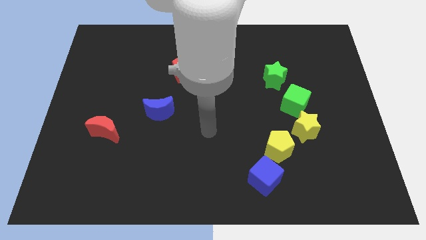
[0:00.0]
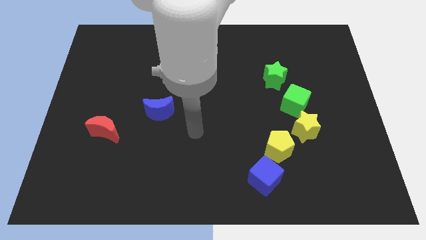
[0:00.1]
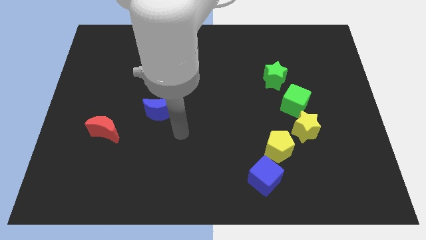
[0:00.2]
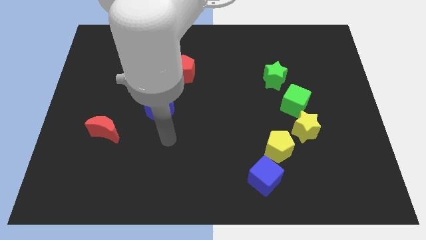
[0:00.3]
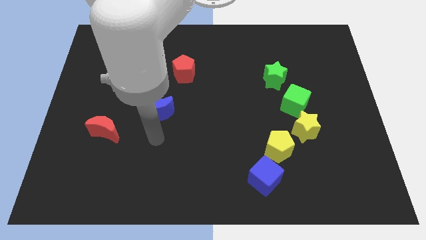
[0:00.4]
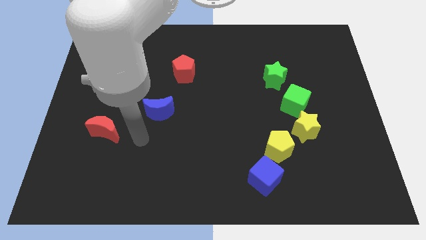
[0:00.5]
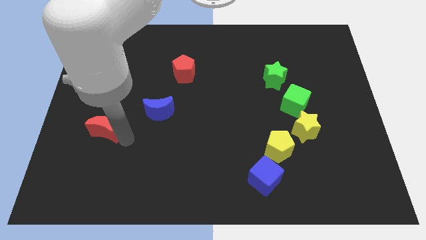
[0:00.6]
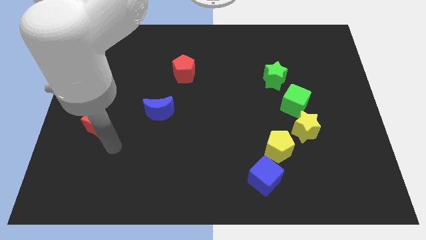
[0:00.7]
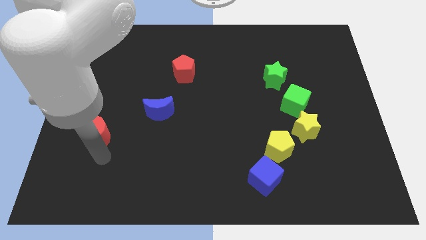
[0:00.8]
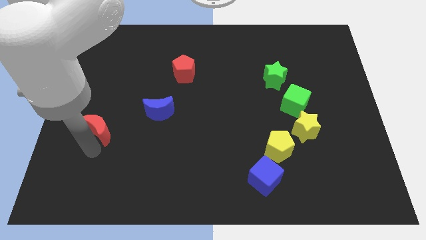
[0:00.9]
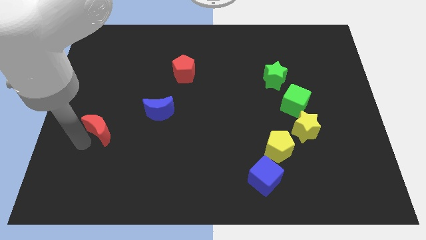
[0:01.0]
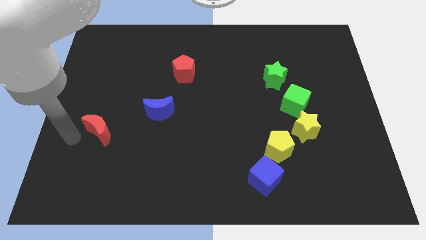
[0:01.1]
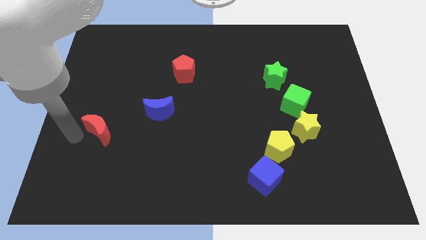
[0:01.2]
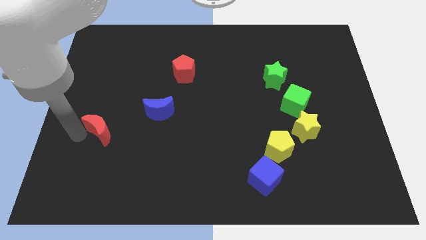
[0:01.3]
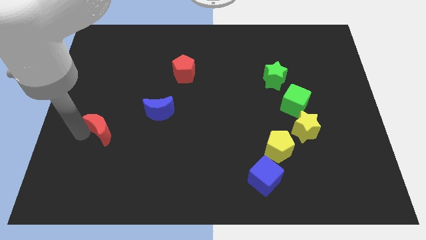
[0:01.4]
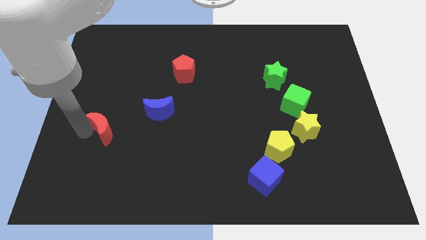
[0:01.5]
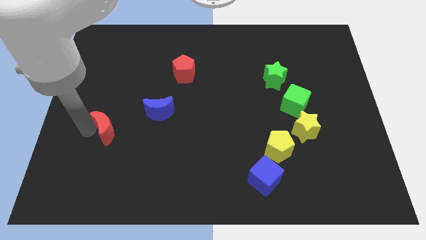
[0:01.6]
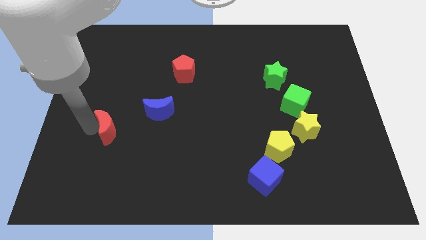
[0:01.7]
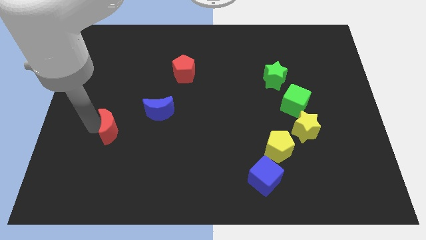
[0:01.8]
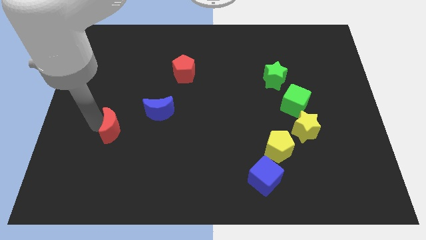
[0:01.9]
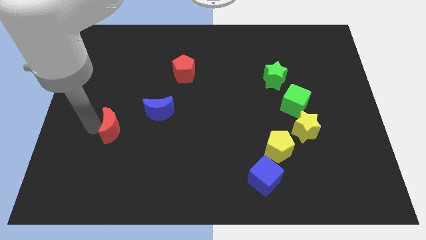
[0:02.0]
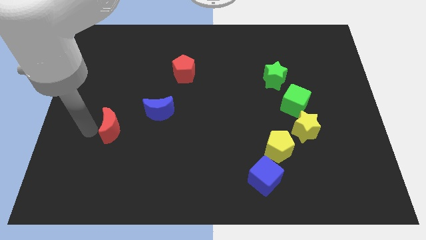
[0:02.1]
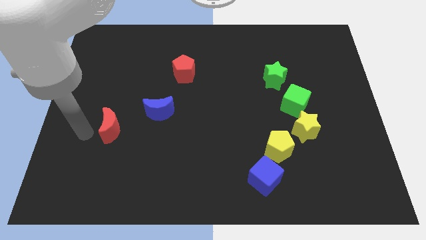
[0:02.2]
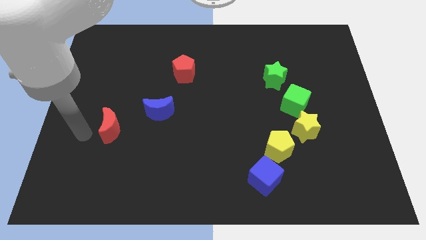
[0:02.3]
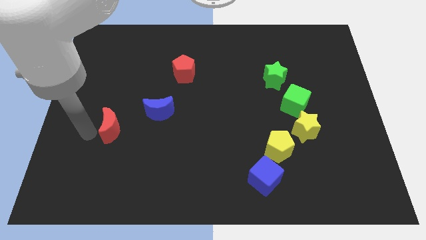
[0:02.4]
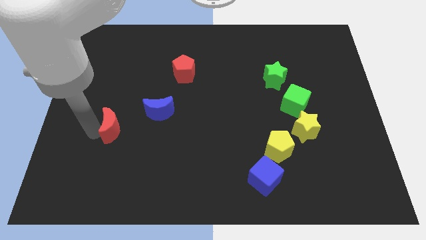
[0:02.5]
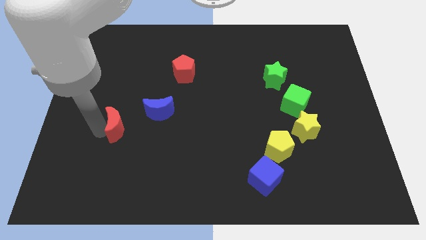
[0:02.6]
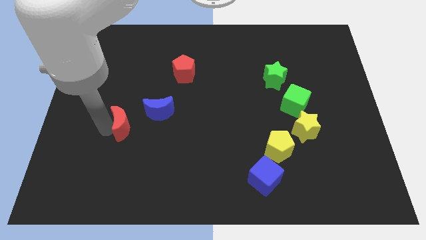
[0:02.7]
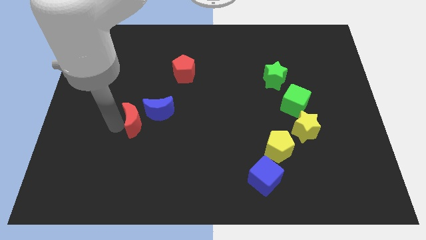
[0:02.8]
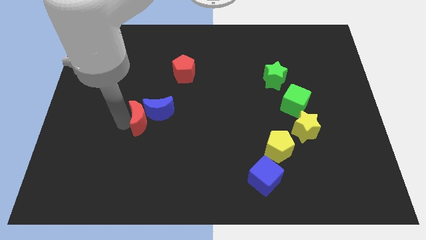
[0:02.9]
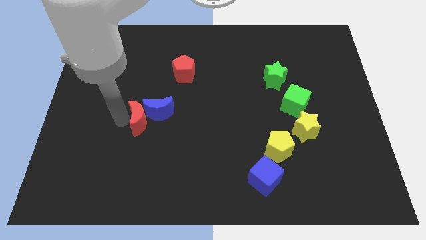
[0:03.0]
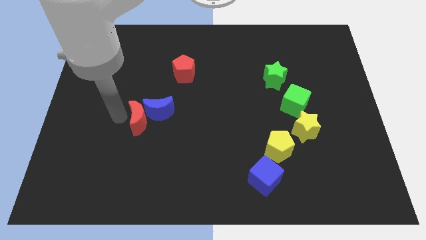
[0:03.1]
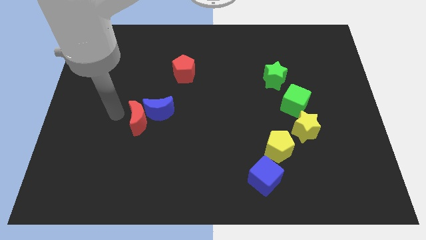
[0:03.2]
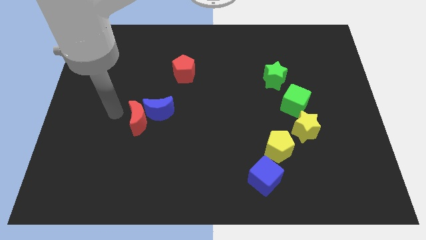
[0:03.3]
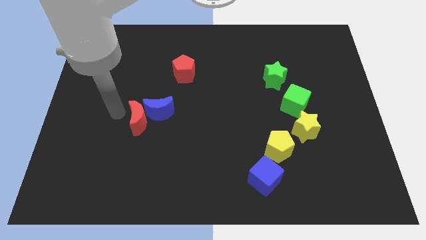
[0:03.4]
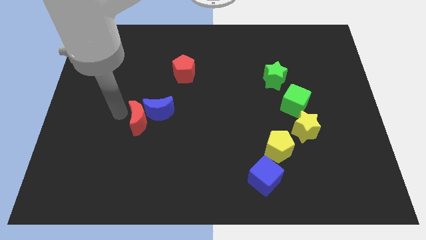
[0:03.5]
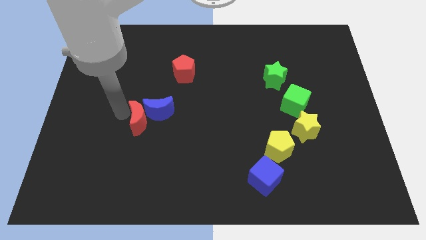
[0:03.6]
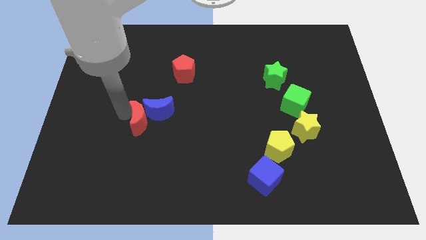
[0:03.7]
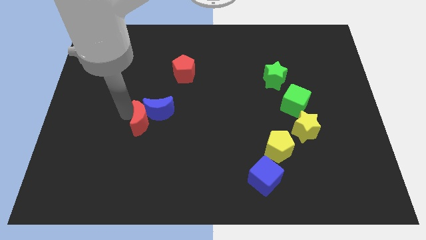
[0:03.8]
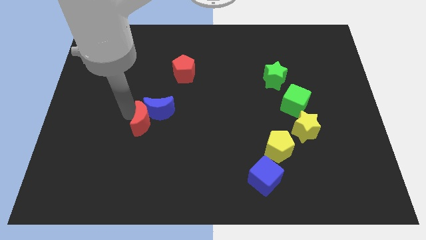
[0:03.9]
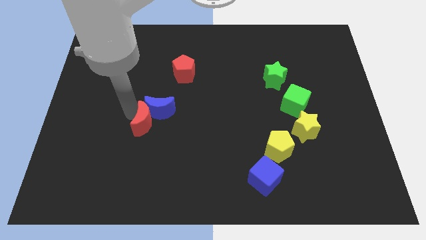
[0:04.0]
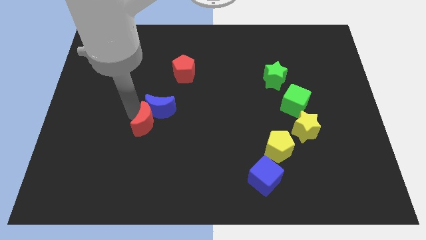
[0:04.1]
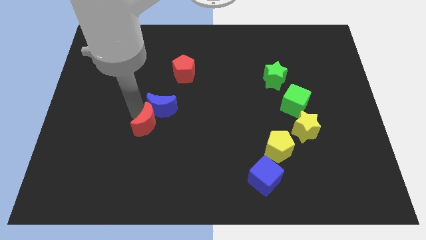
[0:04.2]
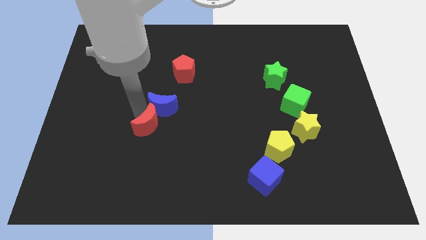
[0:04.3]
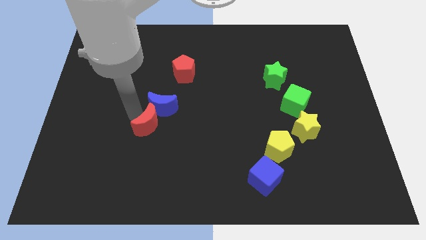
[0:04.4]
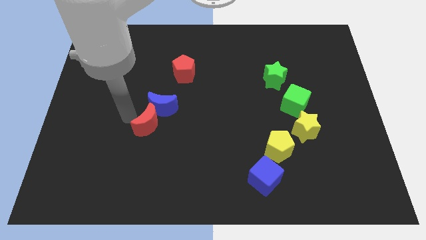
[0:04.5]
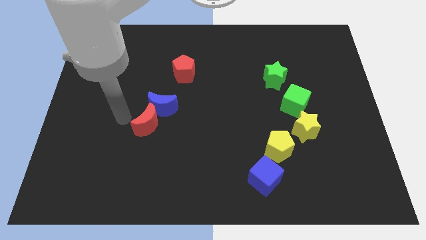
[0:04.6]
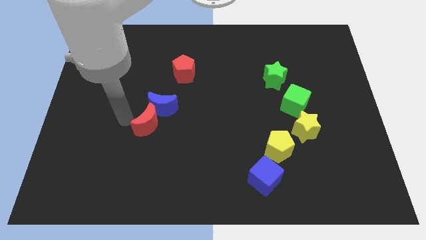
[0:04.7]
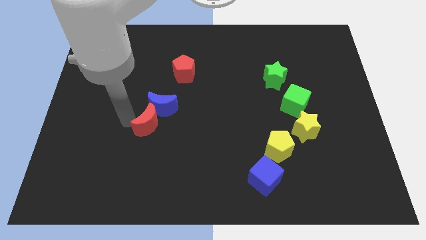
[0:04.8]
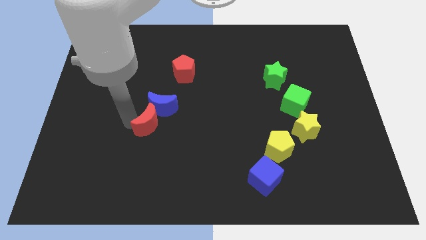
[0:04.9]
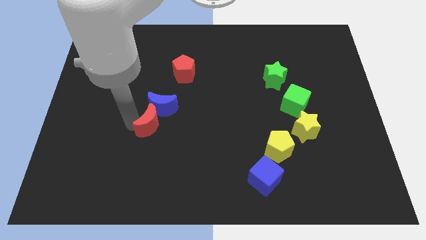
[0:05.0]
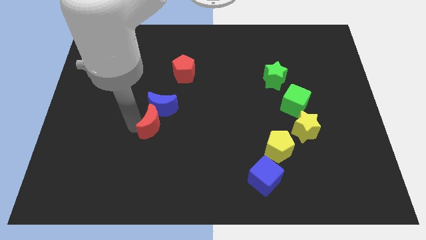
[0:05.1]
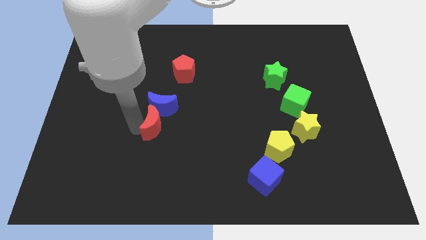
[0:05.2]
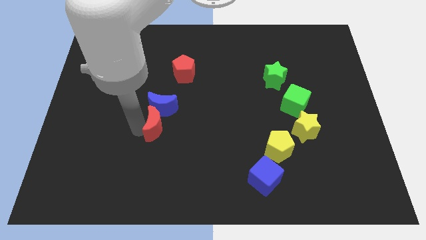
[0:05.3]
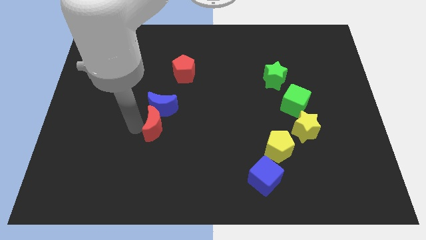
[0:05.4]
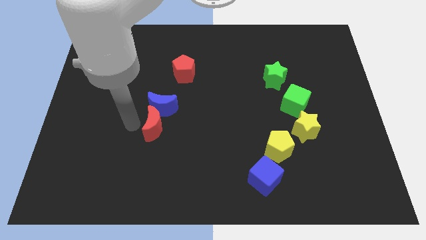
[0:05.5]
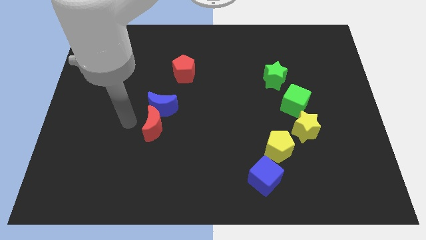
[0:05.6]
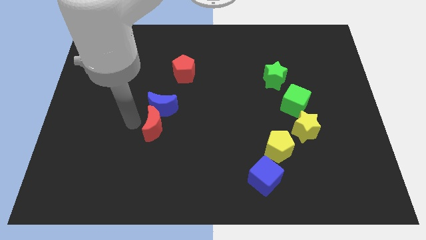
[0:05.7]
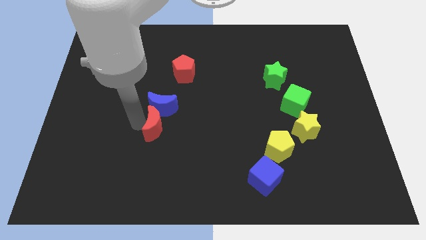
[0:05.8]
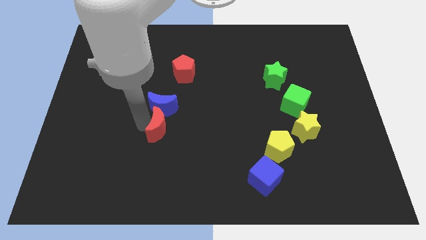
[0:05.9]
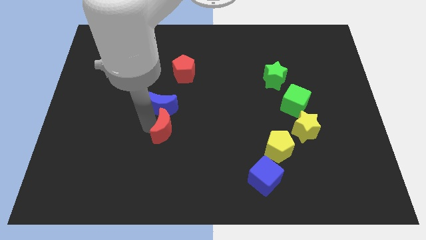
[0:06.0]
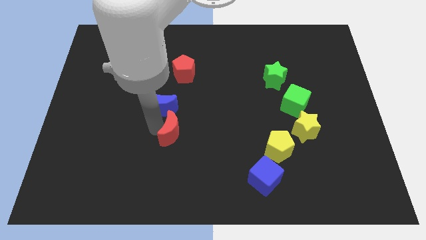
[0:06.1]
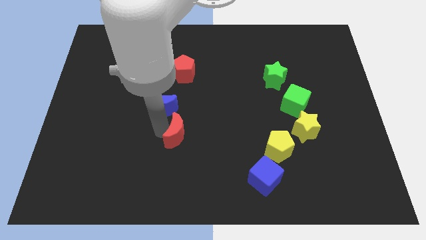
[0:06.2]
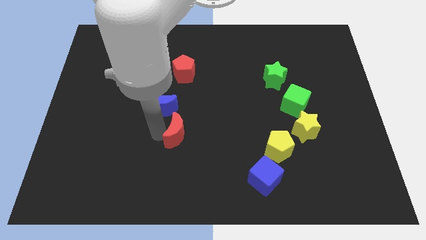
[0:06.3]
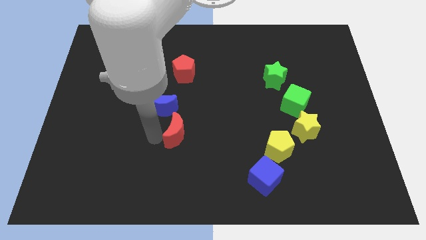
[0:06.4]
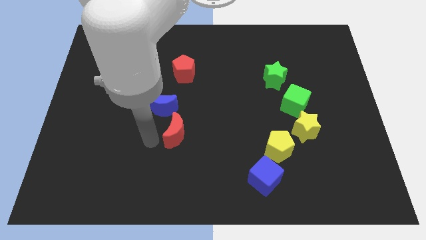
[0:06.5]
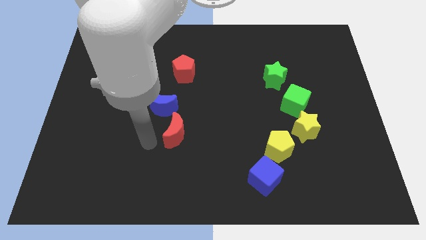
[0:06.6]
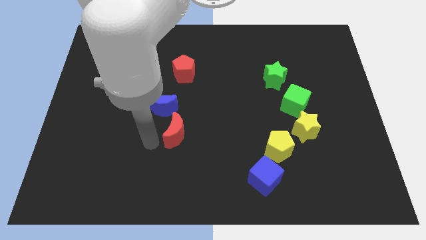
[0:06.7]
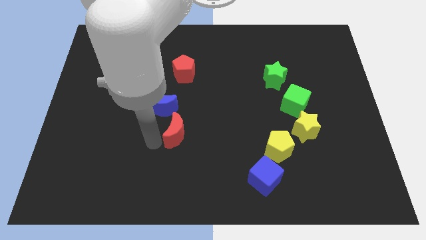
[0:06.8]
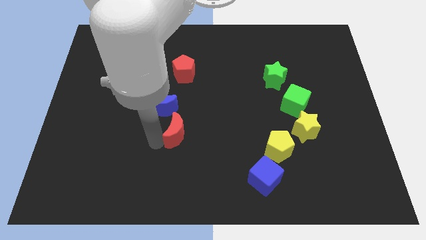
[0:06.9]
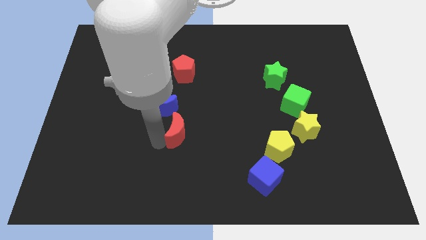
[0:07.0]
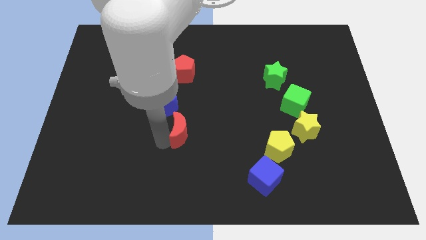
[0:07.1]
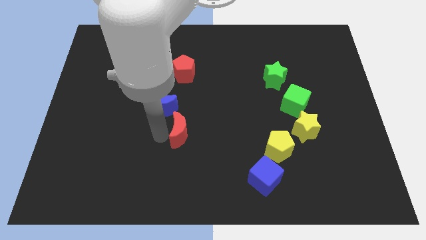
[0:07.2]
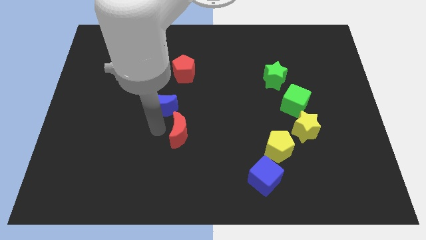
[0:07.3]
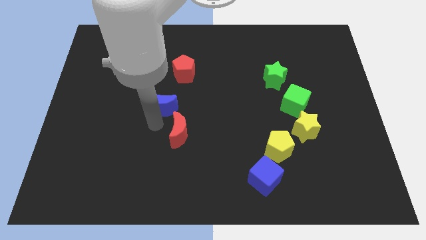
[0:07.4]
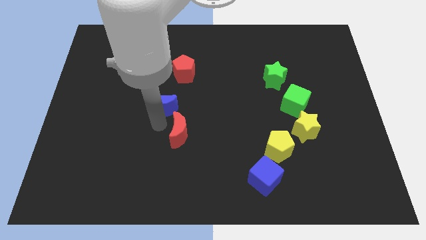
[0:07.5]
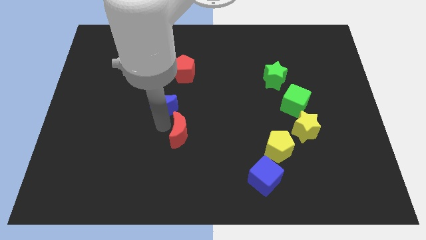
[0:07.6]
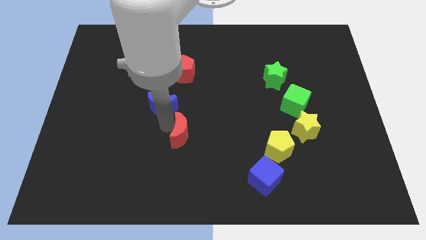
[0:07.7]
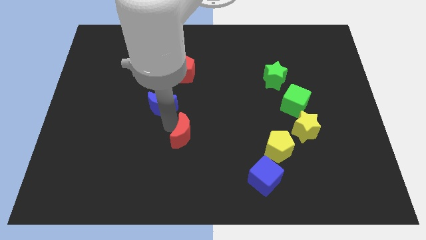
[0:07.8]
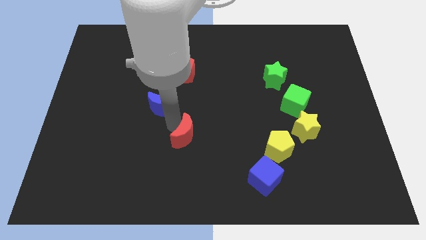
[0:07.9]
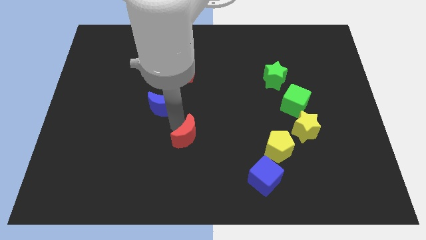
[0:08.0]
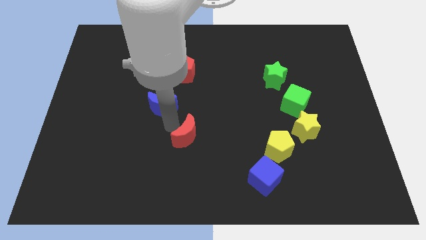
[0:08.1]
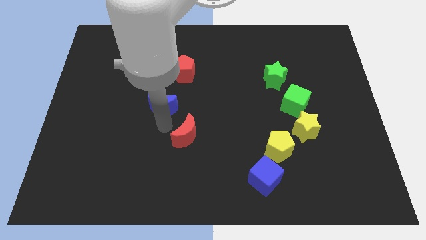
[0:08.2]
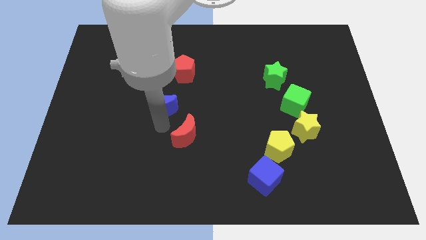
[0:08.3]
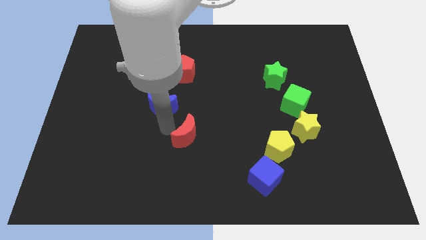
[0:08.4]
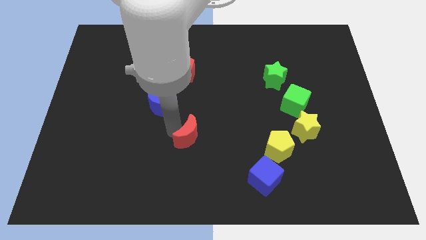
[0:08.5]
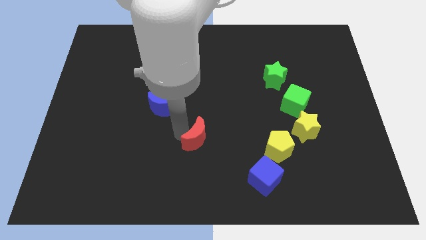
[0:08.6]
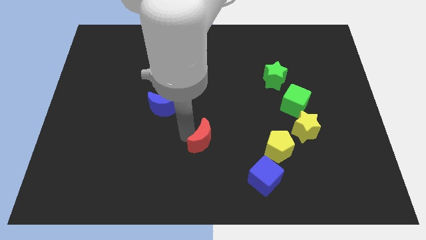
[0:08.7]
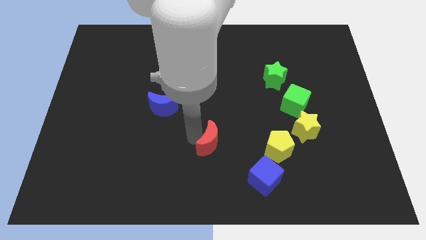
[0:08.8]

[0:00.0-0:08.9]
push the red moon to the left side of the yellow pentagon
